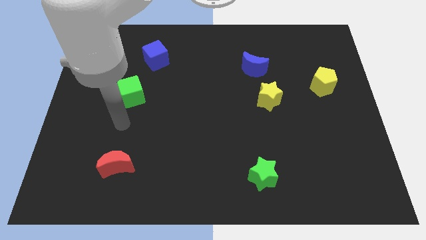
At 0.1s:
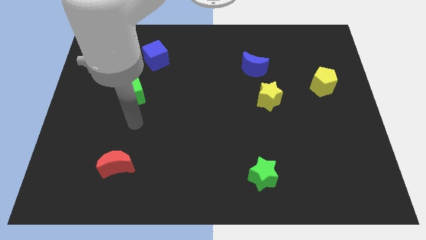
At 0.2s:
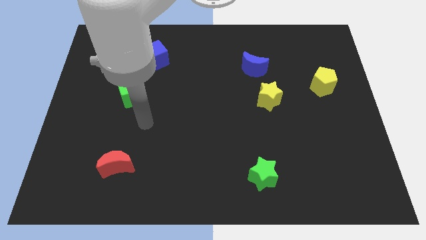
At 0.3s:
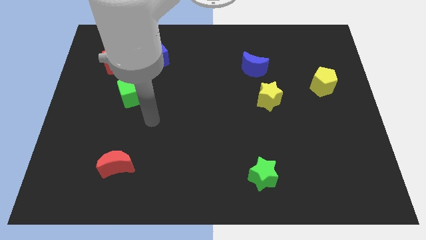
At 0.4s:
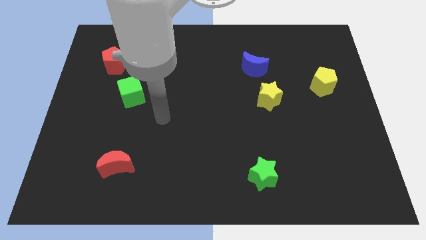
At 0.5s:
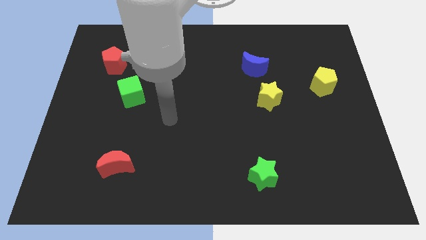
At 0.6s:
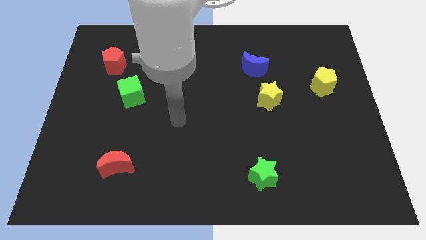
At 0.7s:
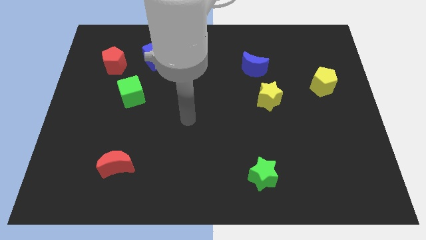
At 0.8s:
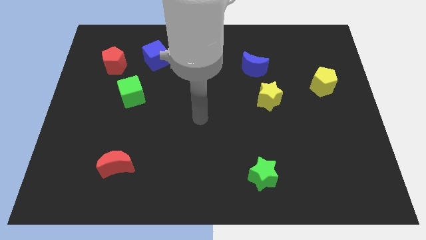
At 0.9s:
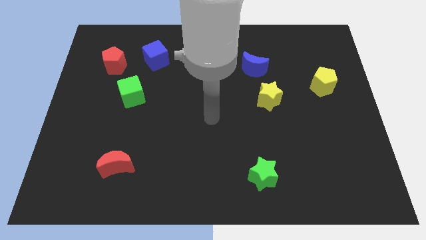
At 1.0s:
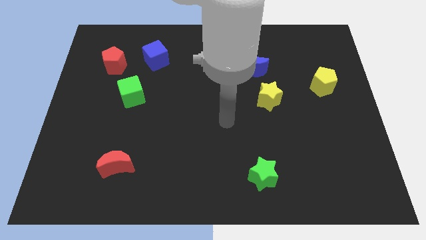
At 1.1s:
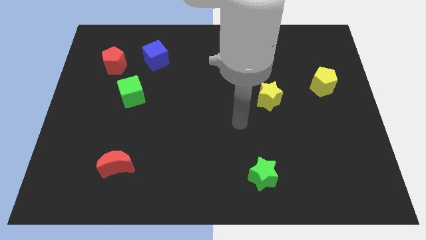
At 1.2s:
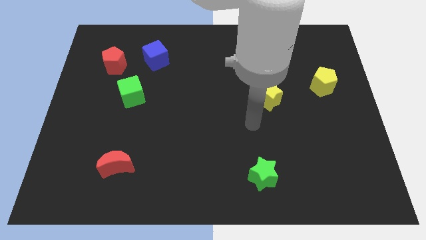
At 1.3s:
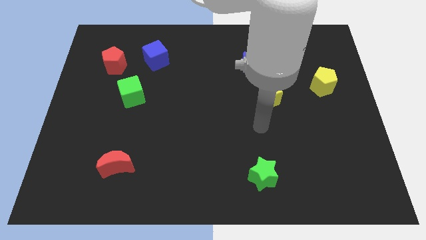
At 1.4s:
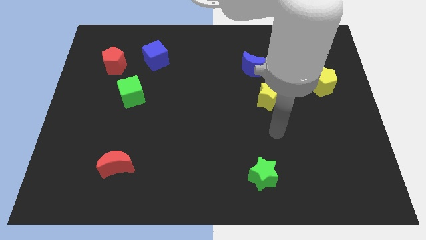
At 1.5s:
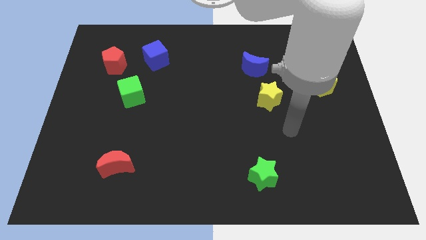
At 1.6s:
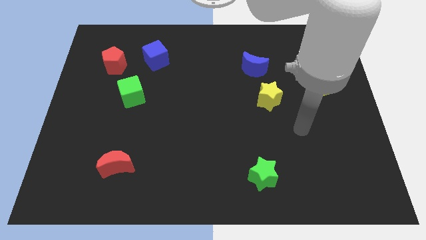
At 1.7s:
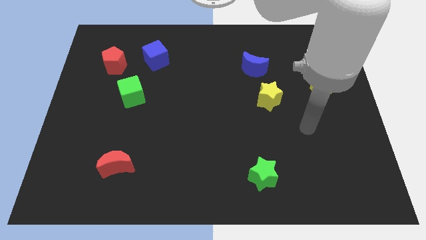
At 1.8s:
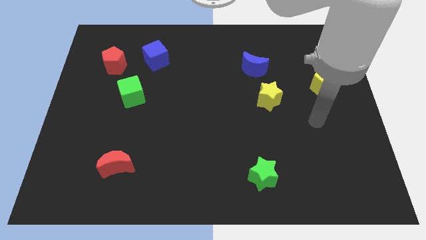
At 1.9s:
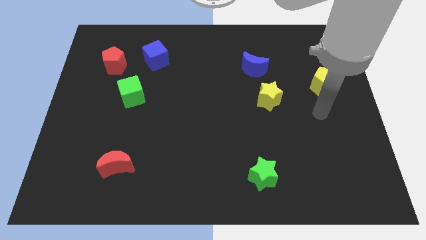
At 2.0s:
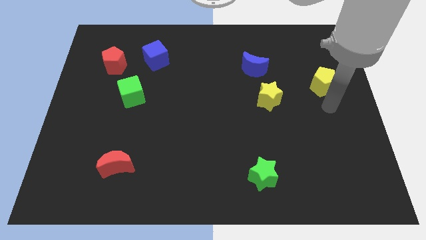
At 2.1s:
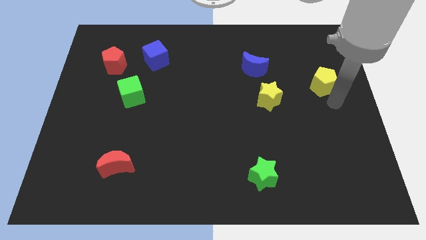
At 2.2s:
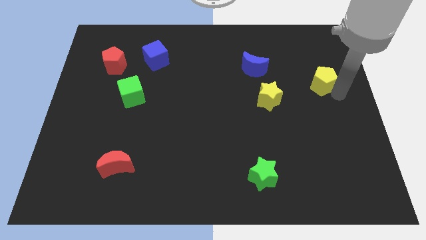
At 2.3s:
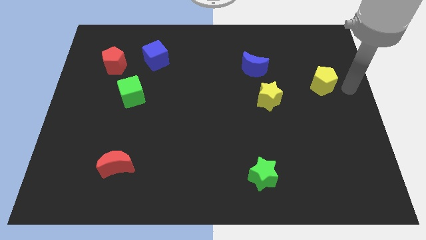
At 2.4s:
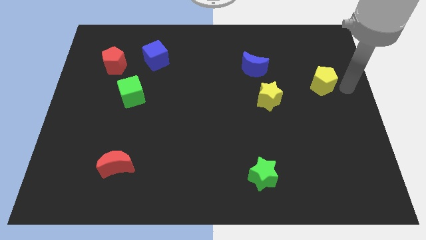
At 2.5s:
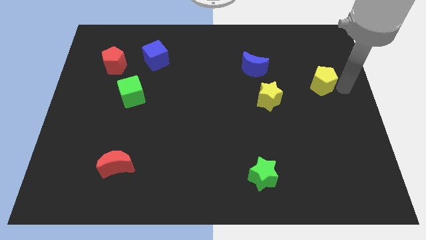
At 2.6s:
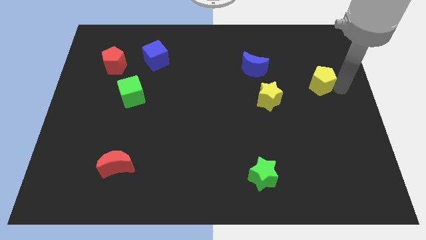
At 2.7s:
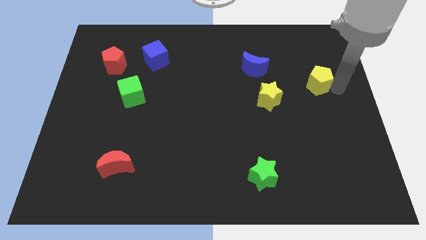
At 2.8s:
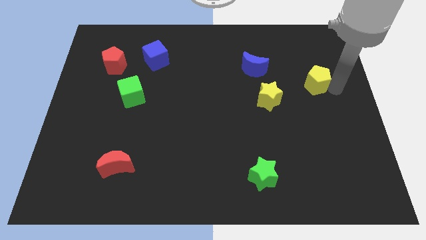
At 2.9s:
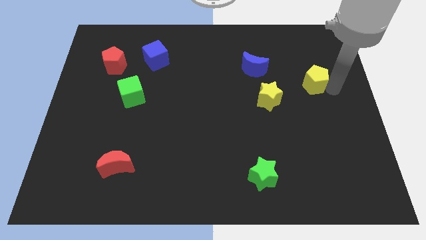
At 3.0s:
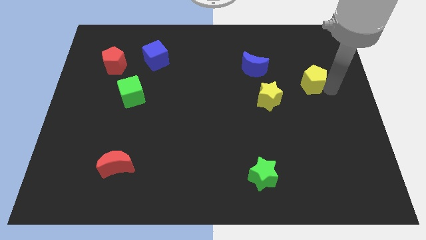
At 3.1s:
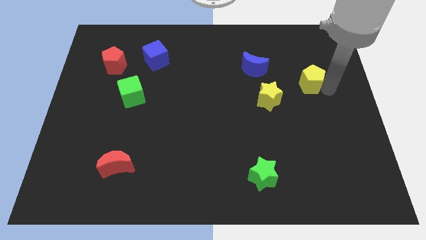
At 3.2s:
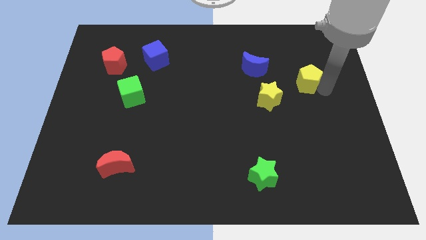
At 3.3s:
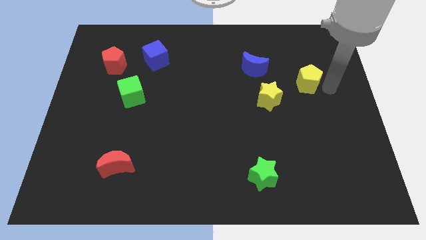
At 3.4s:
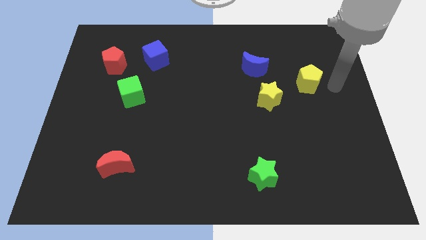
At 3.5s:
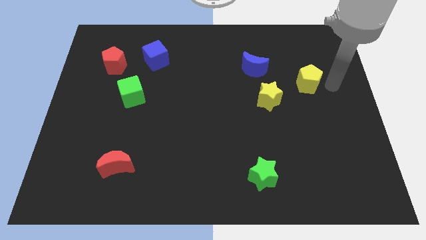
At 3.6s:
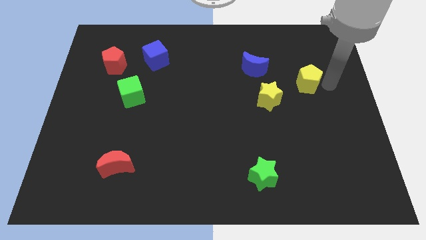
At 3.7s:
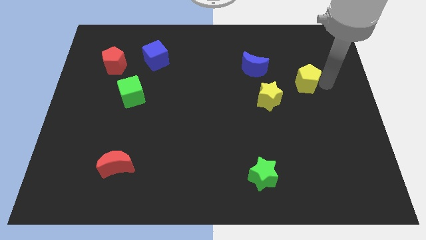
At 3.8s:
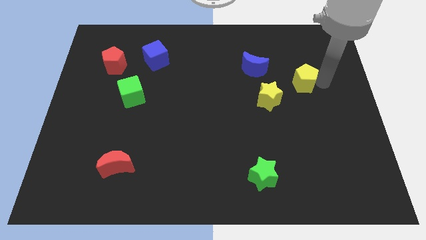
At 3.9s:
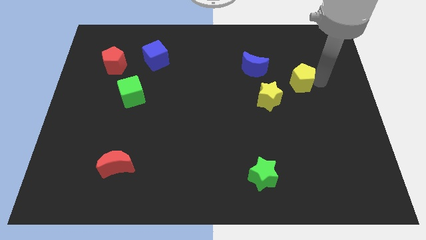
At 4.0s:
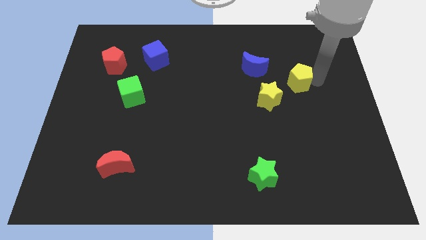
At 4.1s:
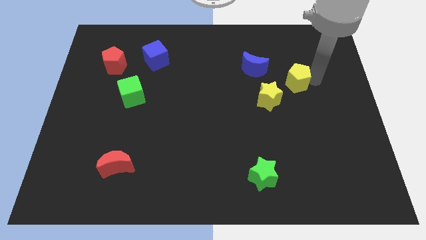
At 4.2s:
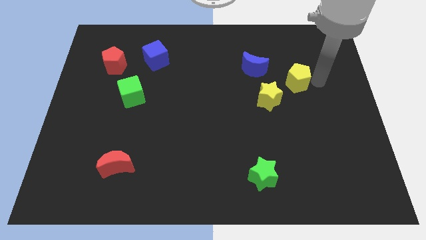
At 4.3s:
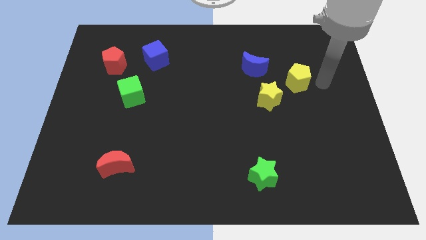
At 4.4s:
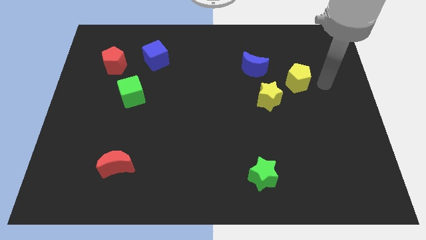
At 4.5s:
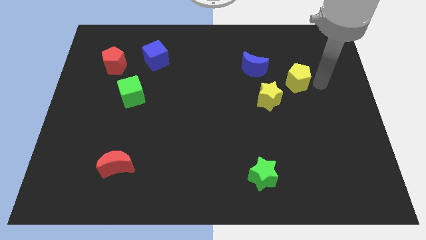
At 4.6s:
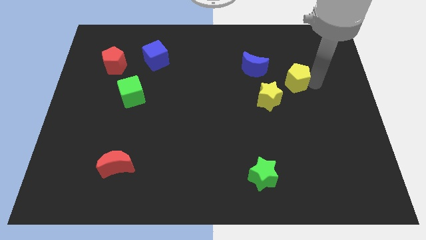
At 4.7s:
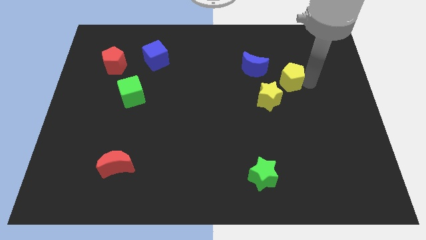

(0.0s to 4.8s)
slide the yellow pentagon to the left a bit

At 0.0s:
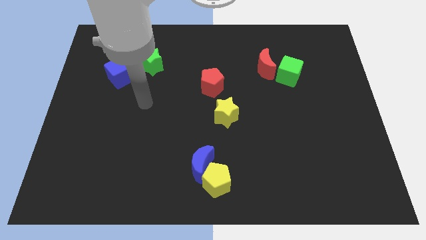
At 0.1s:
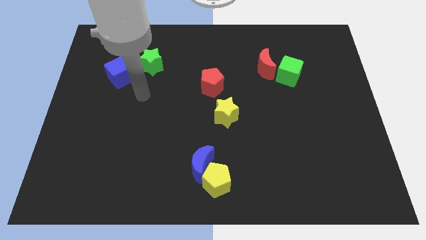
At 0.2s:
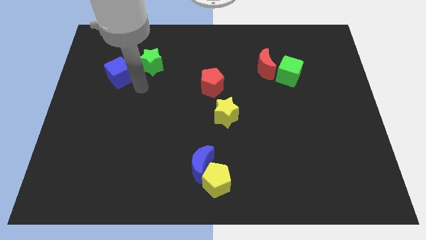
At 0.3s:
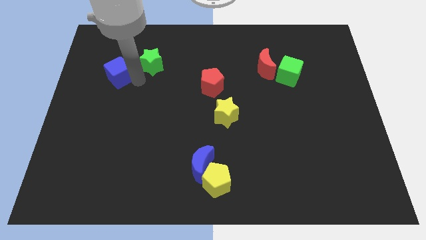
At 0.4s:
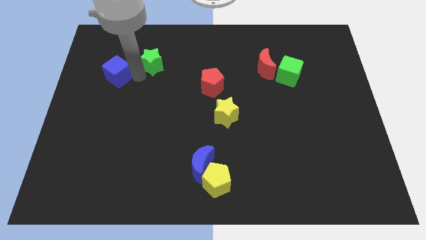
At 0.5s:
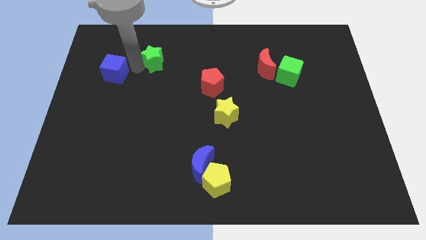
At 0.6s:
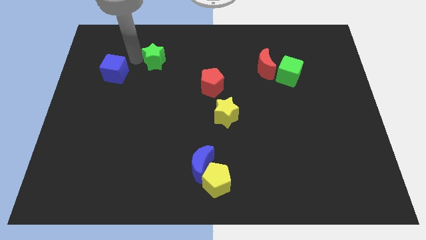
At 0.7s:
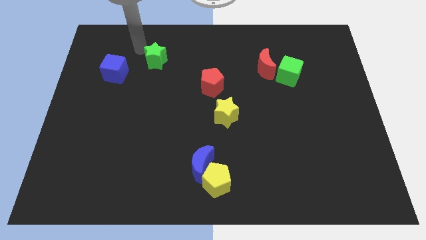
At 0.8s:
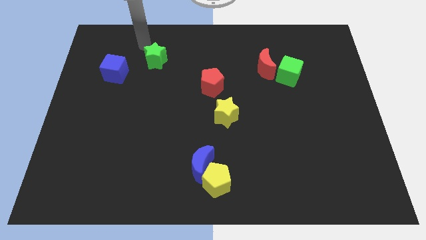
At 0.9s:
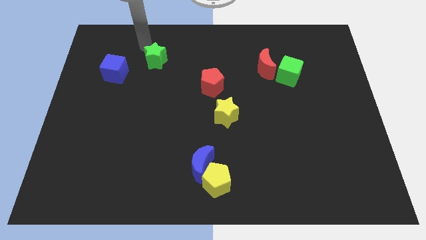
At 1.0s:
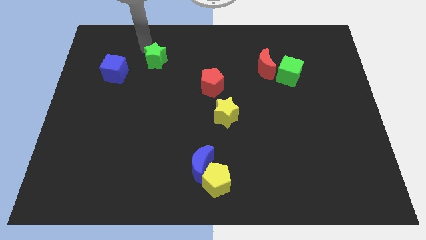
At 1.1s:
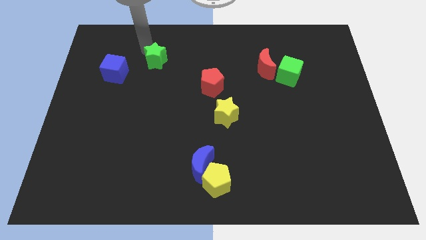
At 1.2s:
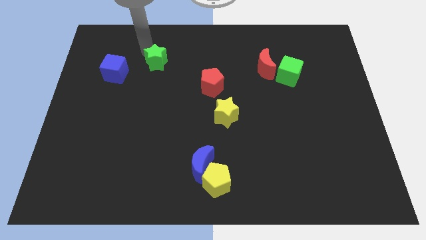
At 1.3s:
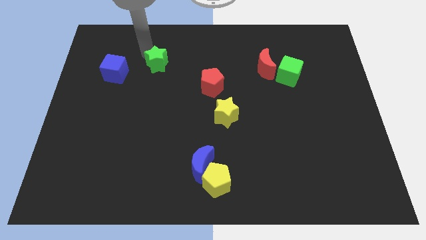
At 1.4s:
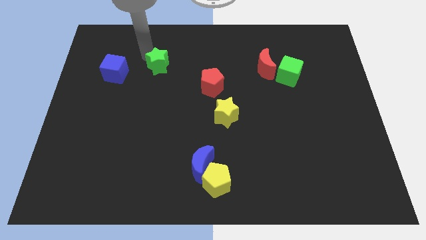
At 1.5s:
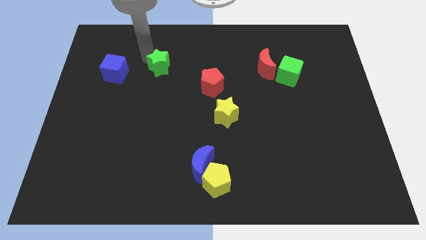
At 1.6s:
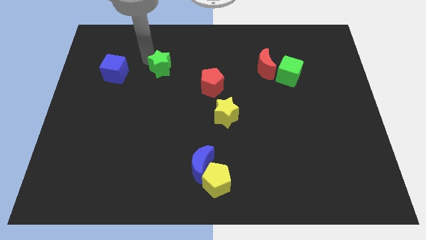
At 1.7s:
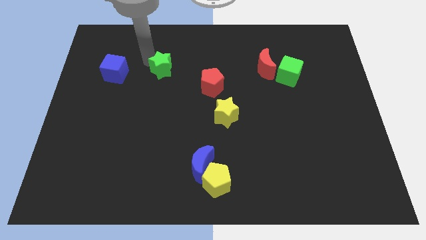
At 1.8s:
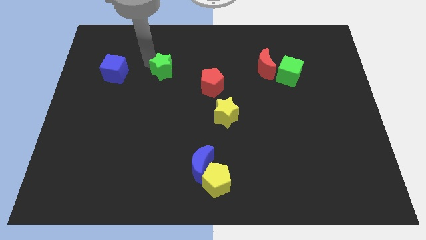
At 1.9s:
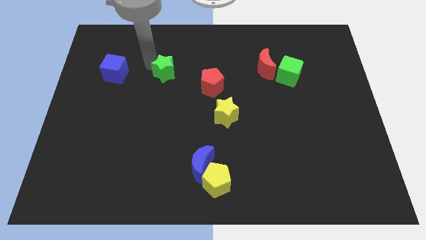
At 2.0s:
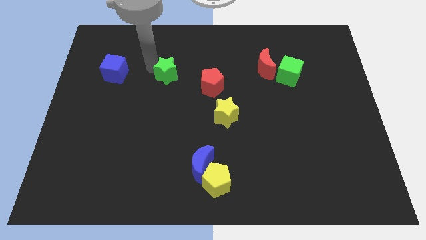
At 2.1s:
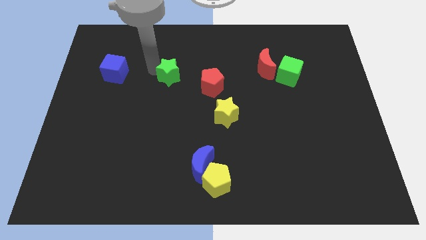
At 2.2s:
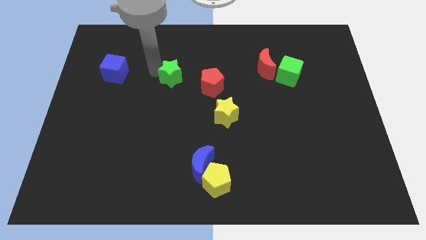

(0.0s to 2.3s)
move the green star a bit down and then right

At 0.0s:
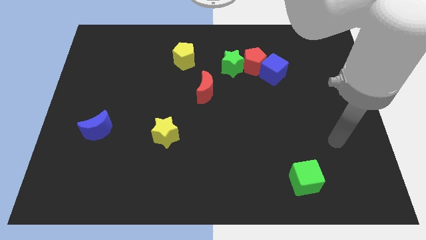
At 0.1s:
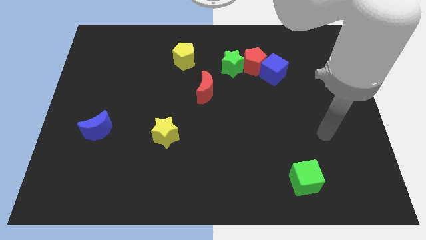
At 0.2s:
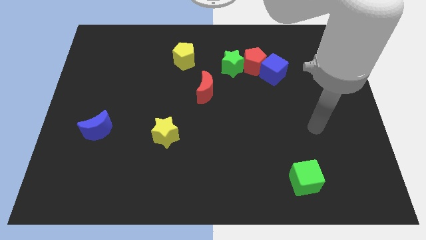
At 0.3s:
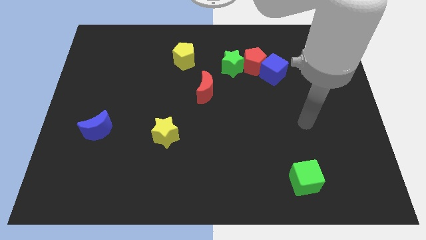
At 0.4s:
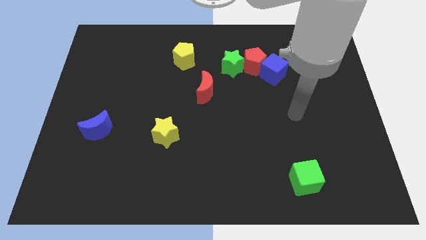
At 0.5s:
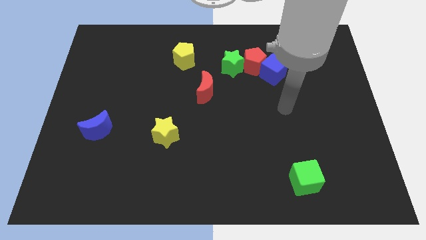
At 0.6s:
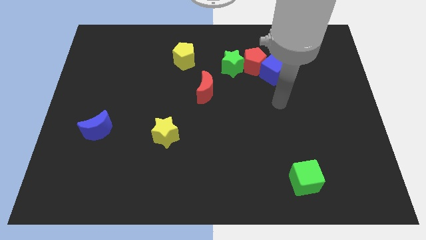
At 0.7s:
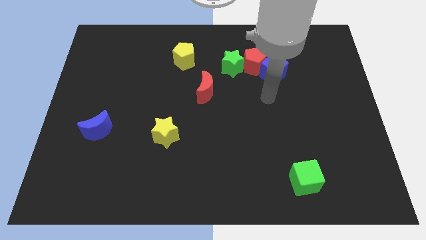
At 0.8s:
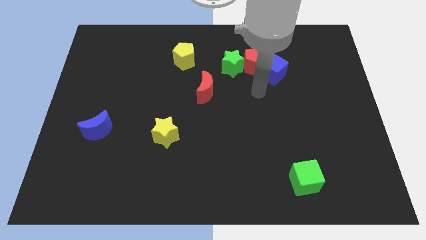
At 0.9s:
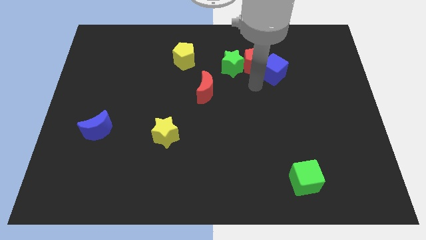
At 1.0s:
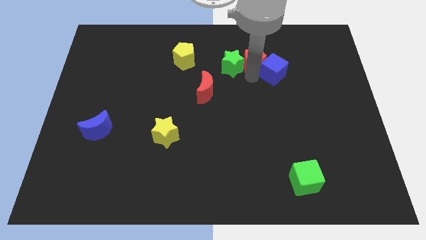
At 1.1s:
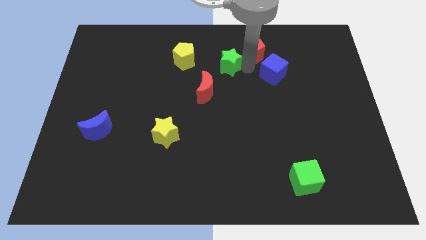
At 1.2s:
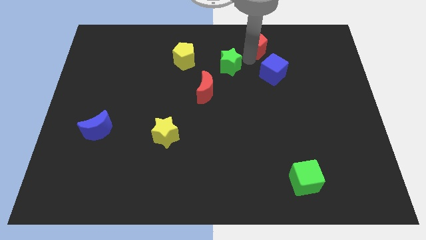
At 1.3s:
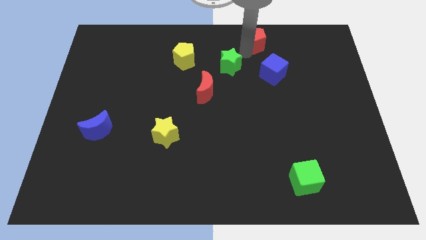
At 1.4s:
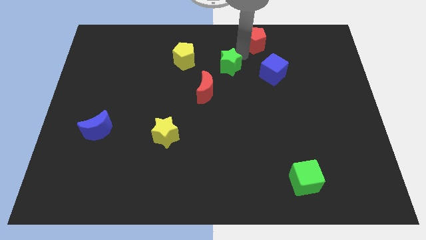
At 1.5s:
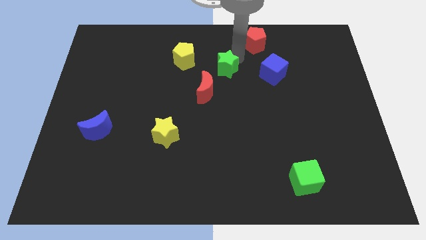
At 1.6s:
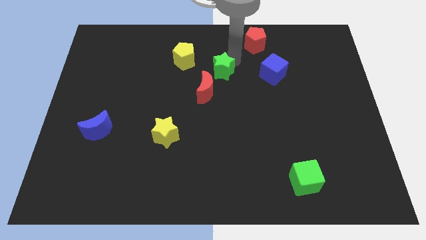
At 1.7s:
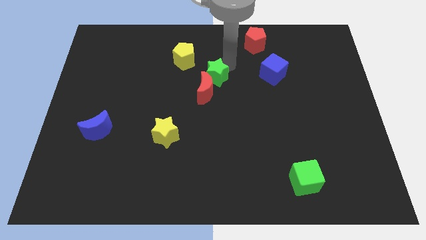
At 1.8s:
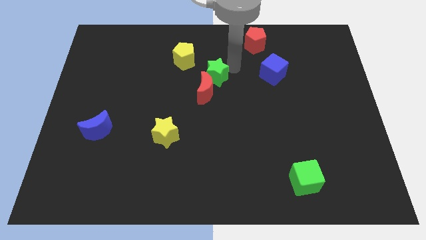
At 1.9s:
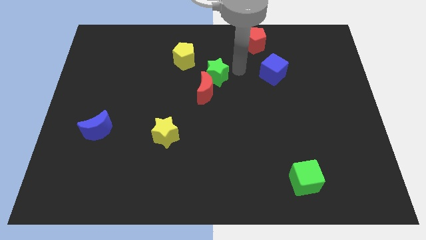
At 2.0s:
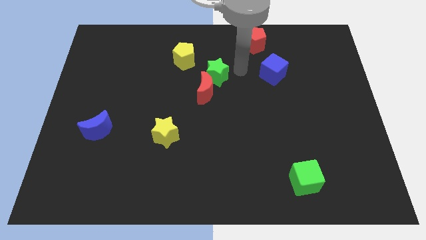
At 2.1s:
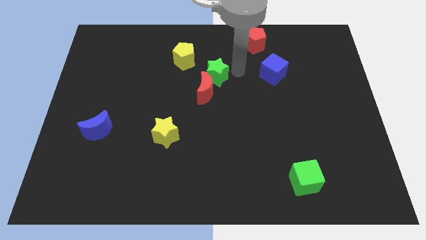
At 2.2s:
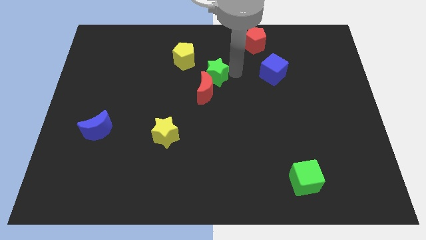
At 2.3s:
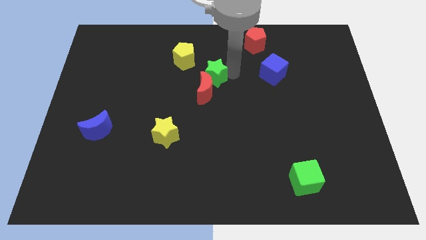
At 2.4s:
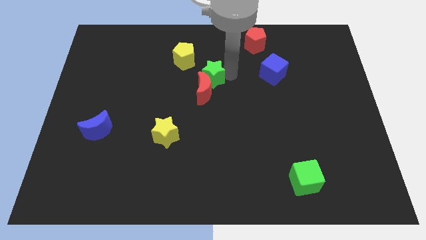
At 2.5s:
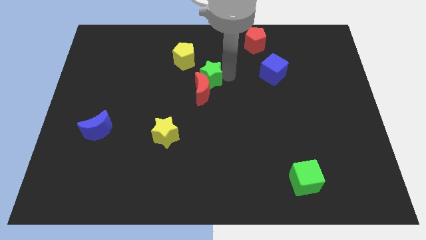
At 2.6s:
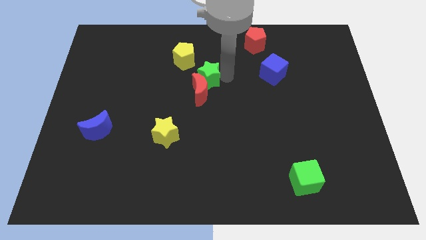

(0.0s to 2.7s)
slightly slide the green star diagonally down and left
